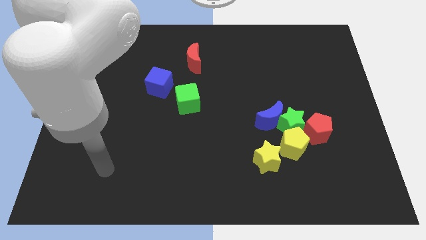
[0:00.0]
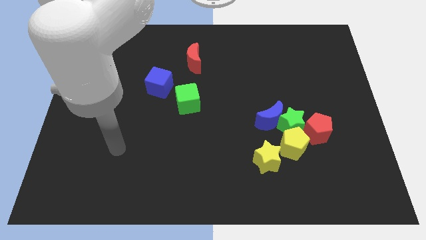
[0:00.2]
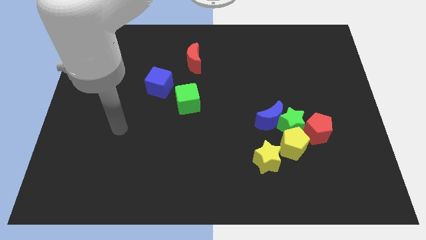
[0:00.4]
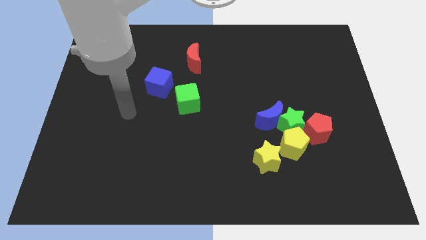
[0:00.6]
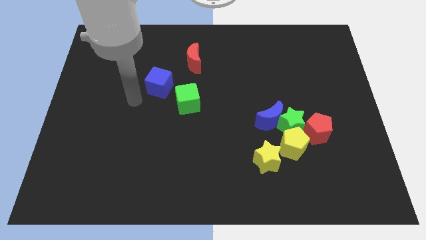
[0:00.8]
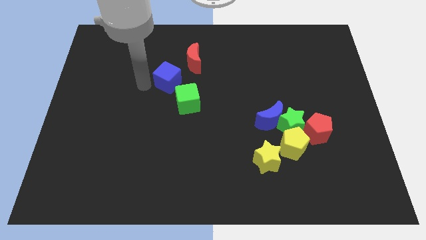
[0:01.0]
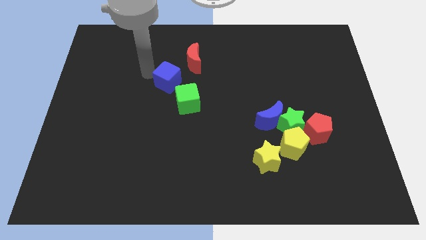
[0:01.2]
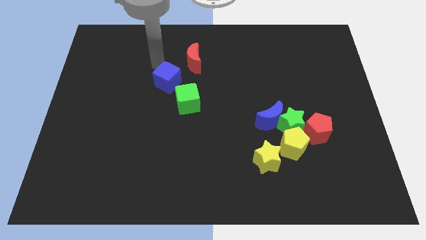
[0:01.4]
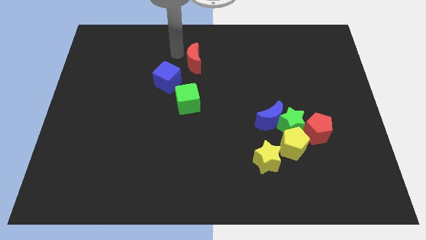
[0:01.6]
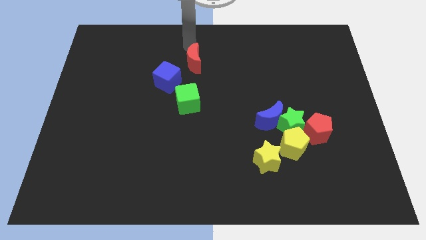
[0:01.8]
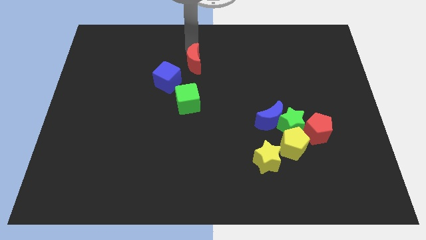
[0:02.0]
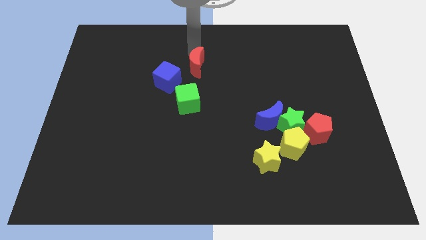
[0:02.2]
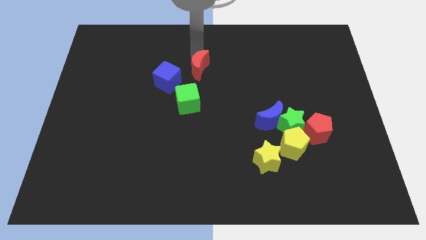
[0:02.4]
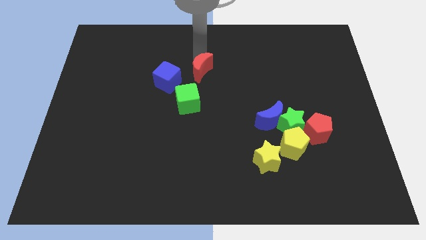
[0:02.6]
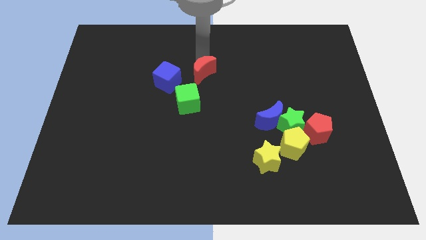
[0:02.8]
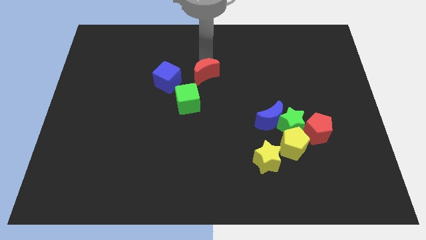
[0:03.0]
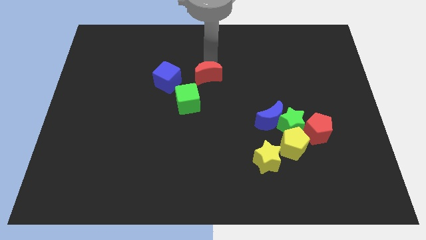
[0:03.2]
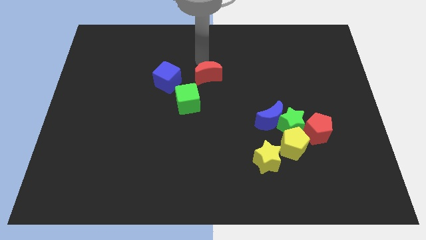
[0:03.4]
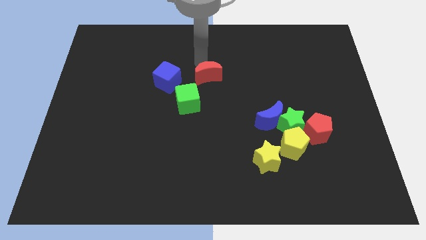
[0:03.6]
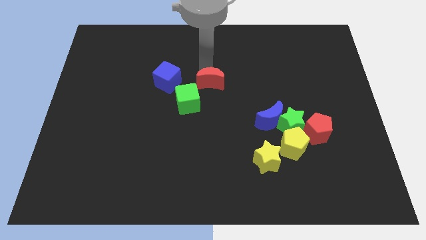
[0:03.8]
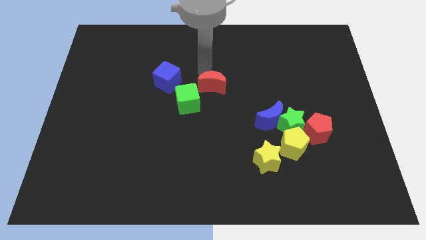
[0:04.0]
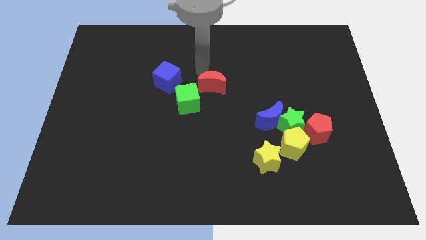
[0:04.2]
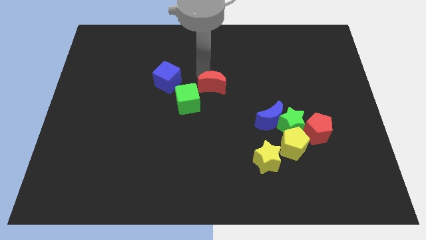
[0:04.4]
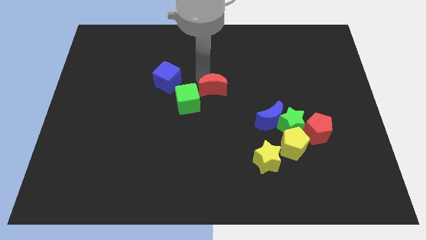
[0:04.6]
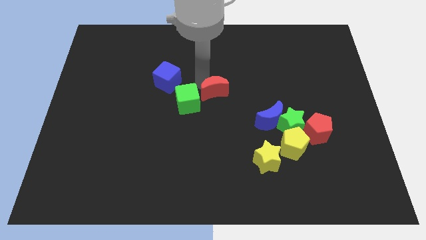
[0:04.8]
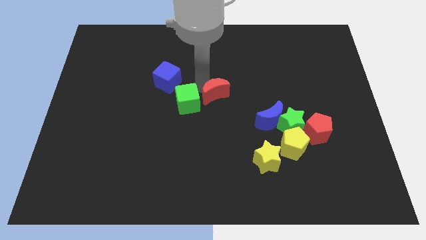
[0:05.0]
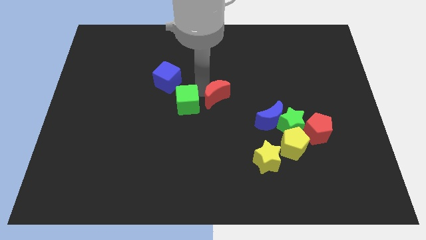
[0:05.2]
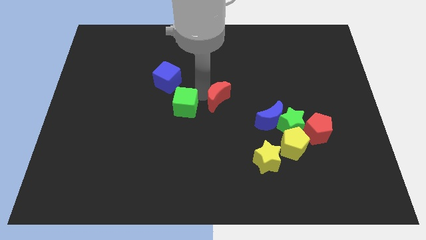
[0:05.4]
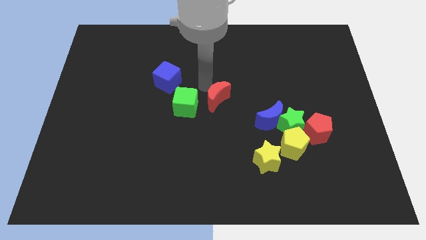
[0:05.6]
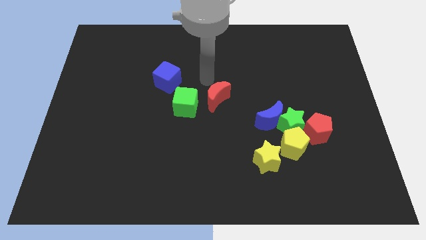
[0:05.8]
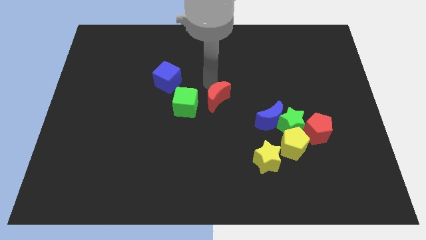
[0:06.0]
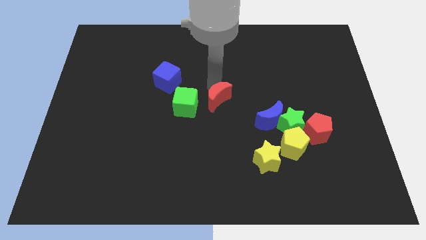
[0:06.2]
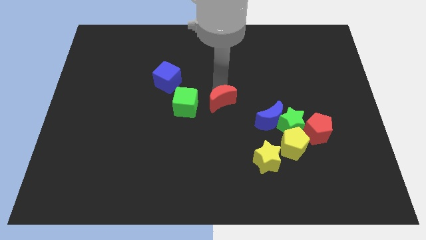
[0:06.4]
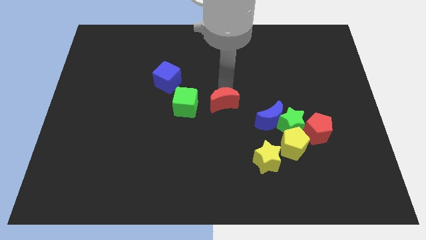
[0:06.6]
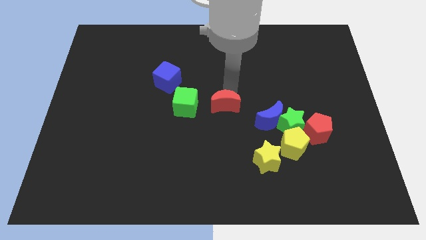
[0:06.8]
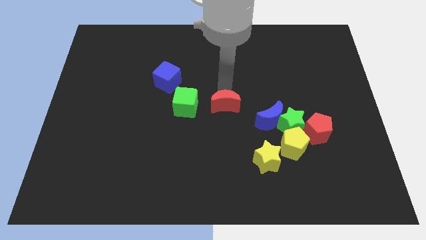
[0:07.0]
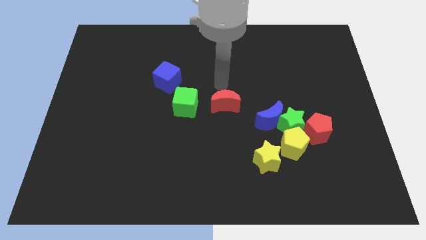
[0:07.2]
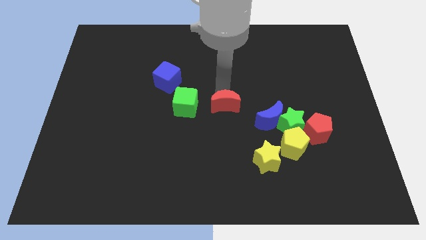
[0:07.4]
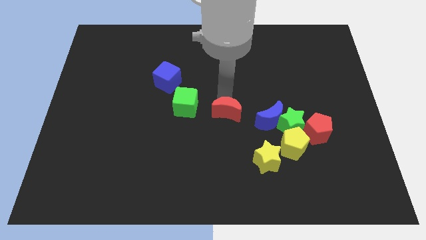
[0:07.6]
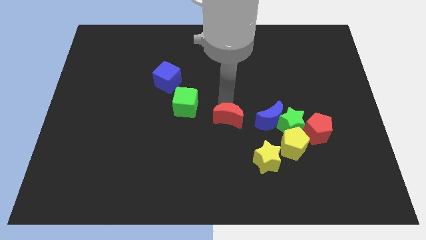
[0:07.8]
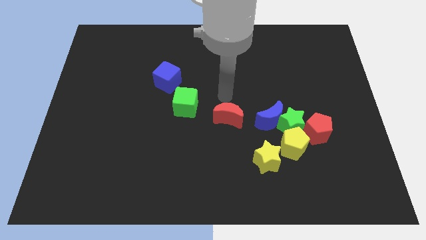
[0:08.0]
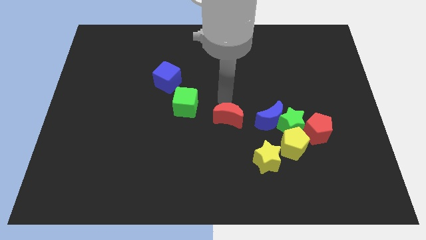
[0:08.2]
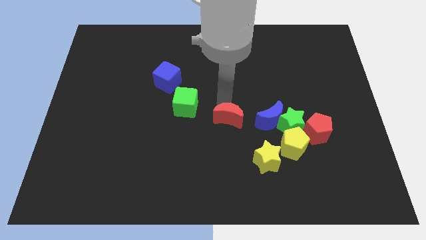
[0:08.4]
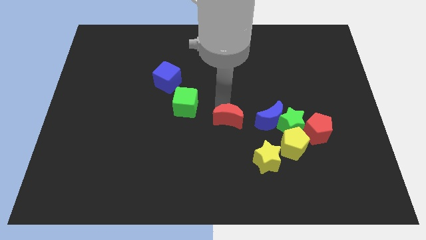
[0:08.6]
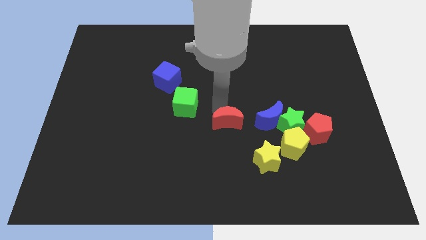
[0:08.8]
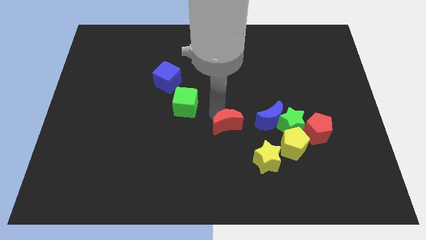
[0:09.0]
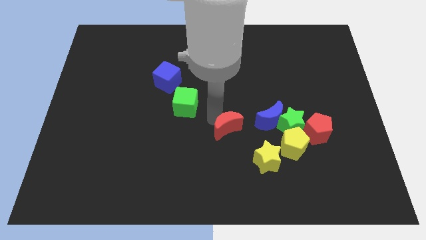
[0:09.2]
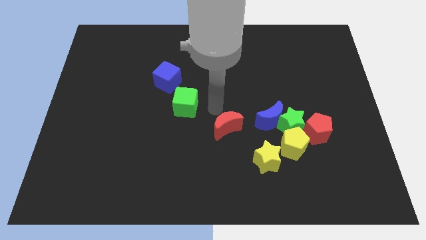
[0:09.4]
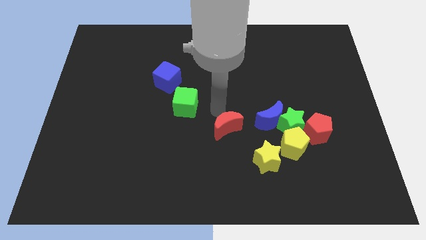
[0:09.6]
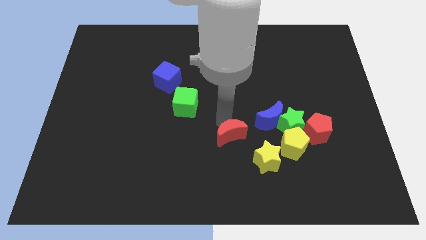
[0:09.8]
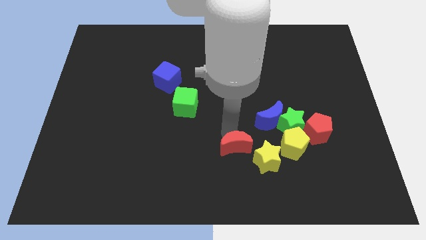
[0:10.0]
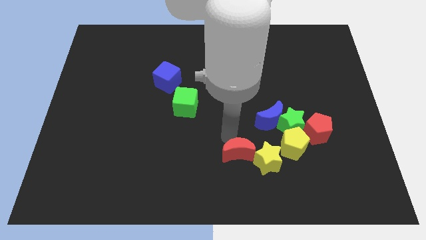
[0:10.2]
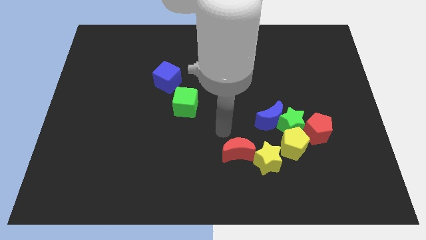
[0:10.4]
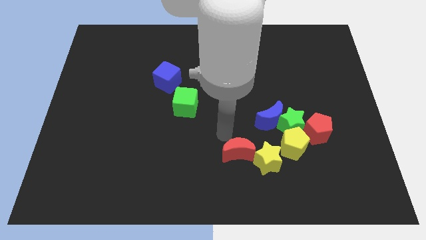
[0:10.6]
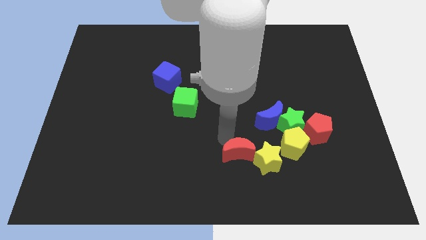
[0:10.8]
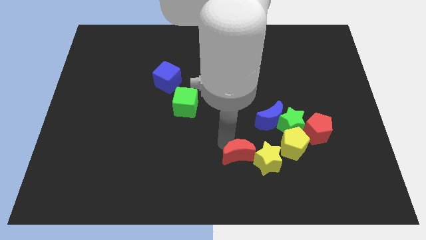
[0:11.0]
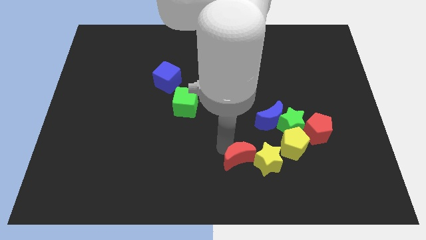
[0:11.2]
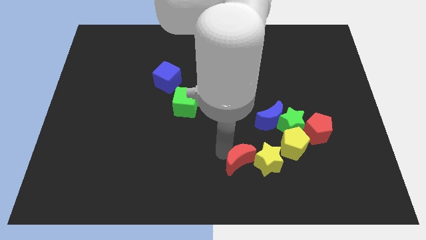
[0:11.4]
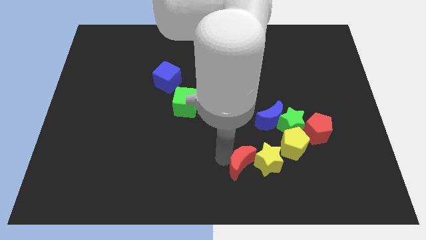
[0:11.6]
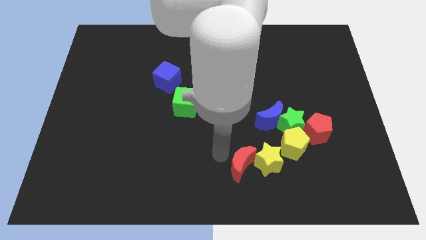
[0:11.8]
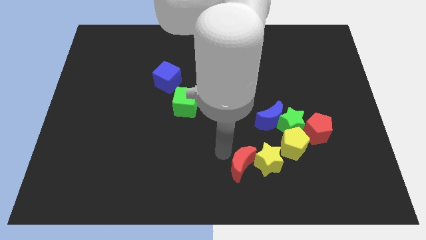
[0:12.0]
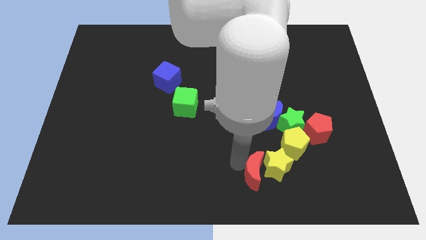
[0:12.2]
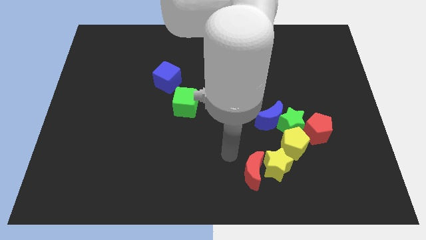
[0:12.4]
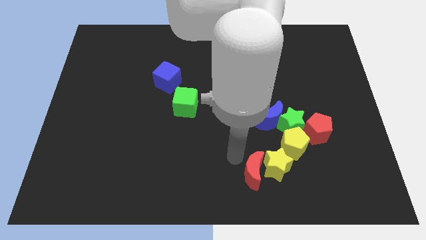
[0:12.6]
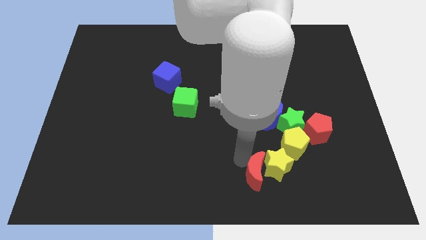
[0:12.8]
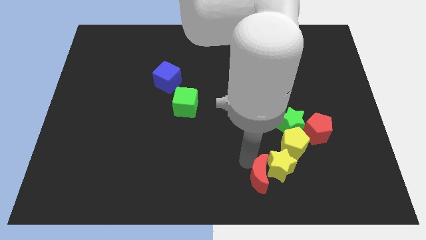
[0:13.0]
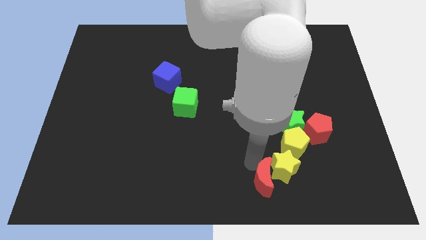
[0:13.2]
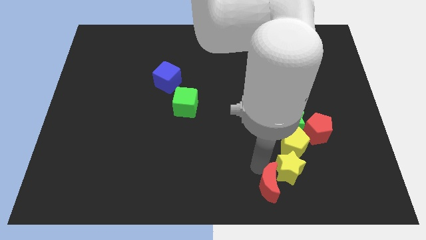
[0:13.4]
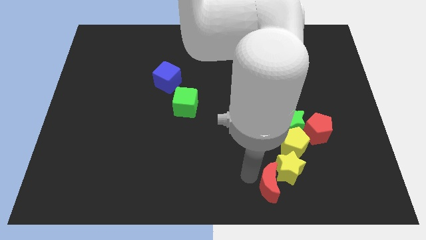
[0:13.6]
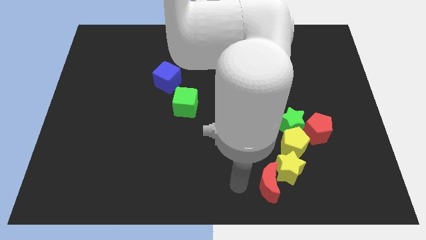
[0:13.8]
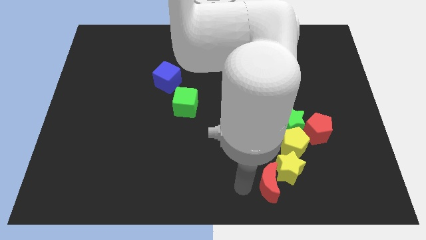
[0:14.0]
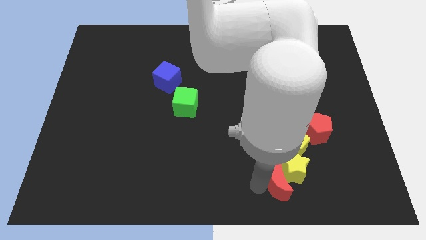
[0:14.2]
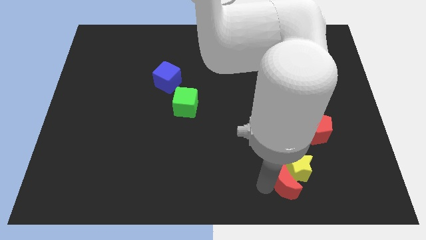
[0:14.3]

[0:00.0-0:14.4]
move the red moon to the bottom of the green star

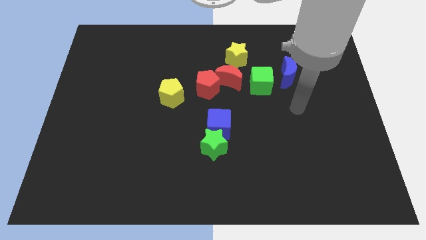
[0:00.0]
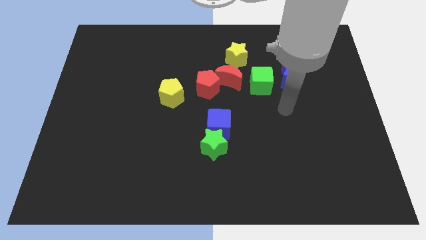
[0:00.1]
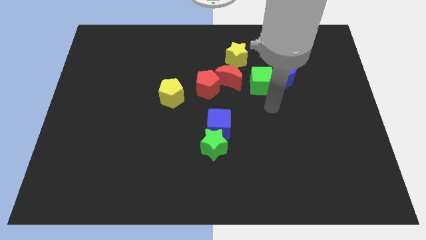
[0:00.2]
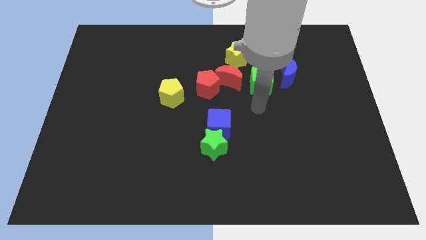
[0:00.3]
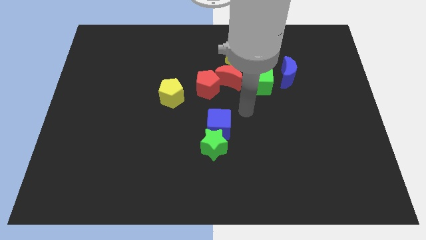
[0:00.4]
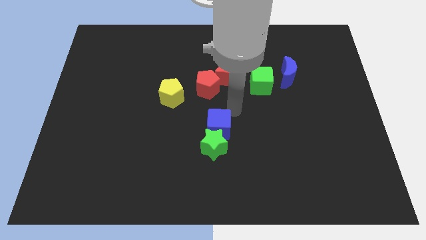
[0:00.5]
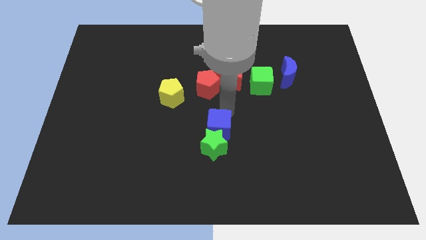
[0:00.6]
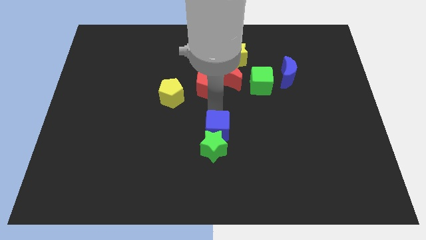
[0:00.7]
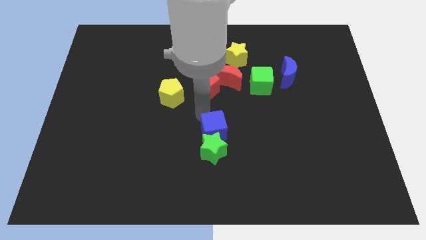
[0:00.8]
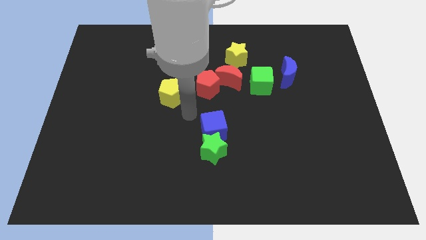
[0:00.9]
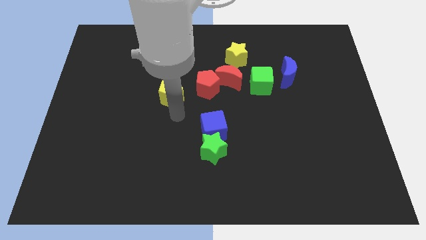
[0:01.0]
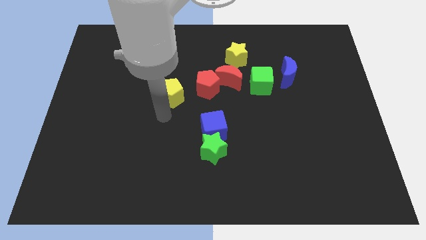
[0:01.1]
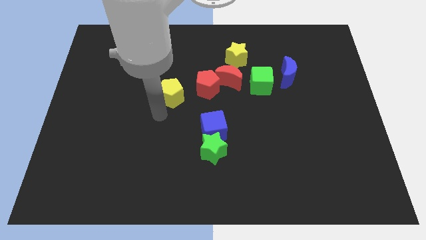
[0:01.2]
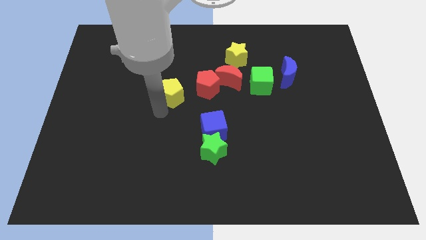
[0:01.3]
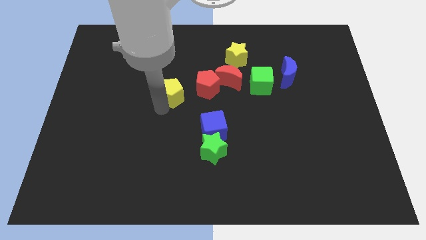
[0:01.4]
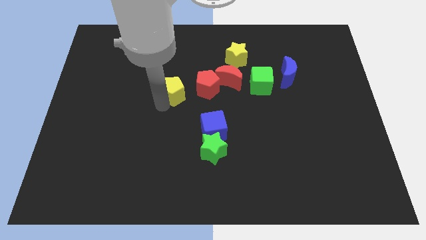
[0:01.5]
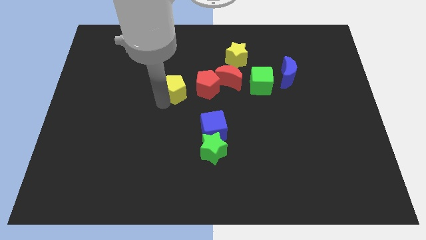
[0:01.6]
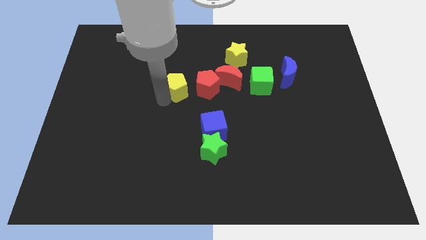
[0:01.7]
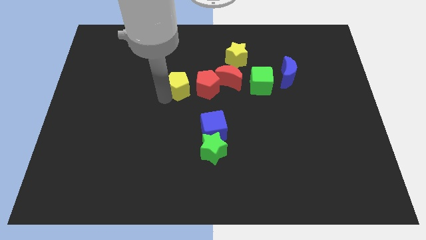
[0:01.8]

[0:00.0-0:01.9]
slide the yellow pentagon to the top left side of the red pentagon
